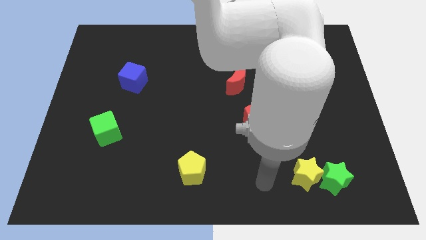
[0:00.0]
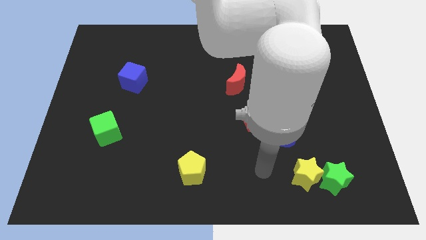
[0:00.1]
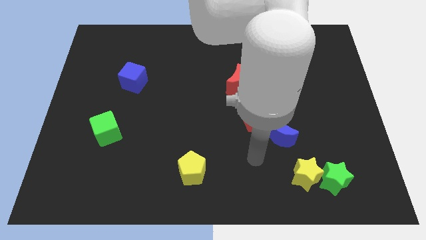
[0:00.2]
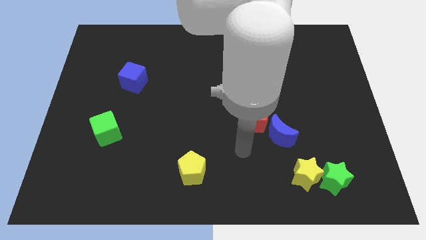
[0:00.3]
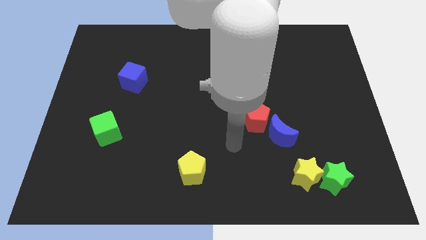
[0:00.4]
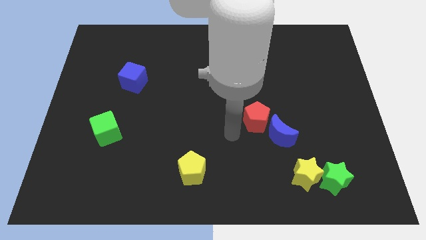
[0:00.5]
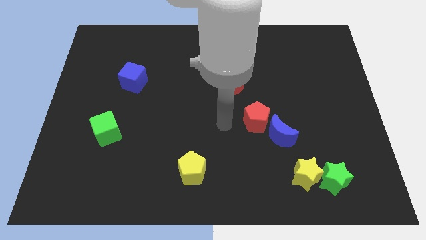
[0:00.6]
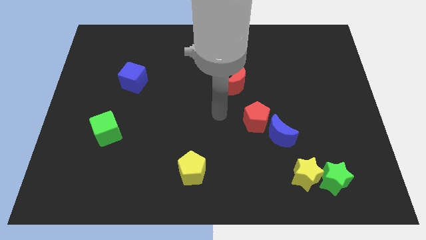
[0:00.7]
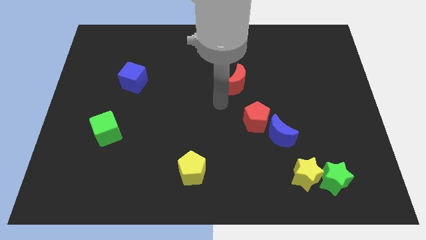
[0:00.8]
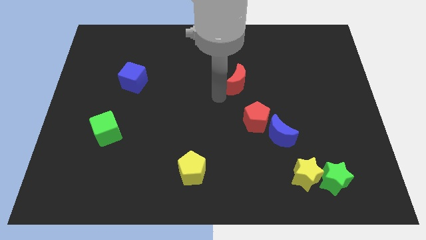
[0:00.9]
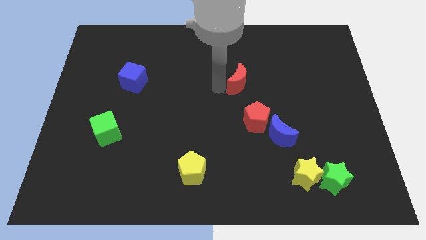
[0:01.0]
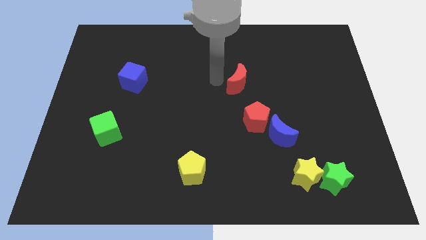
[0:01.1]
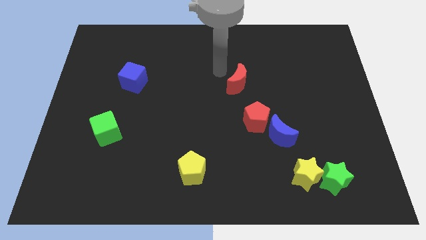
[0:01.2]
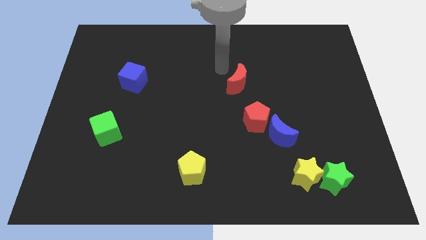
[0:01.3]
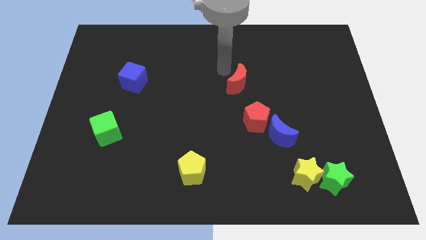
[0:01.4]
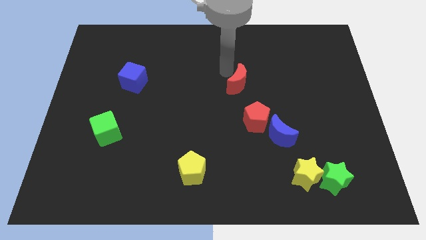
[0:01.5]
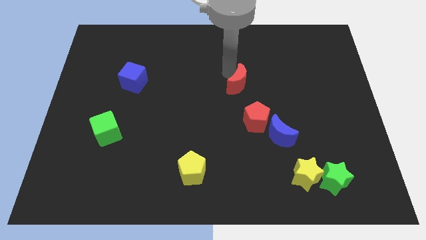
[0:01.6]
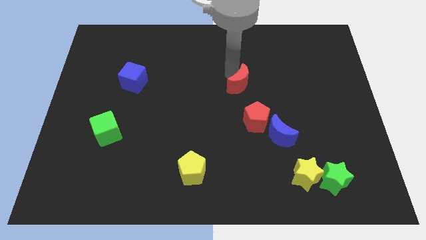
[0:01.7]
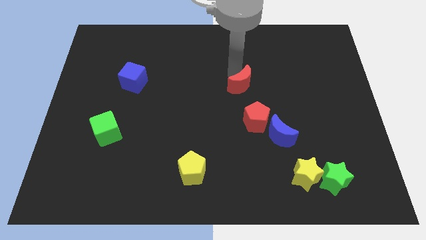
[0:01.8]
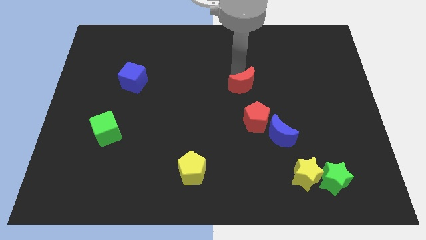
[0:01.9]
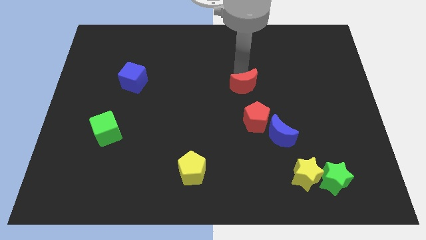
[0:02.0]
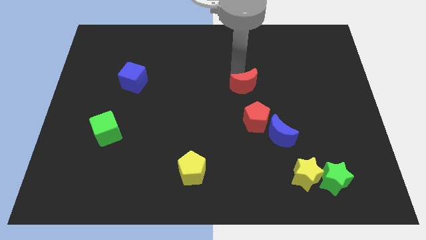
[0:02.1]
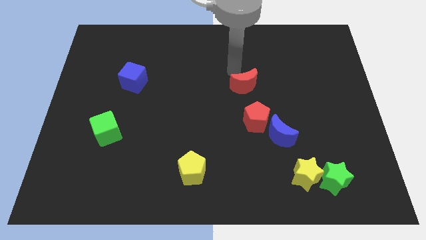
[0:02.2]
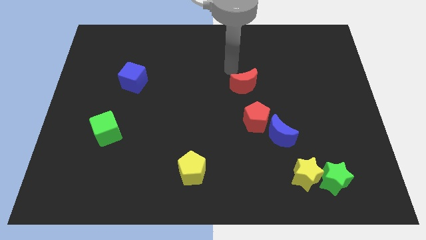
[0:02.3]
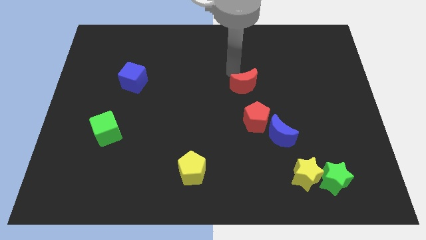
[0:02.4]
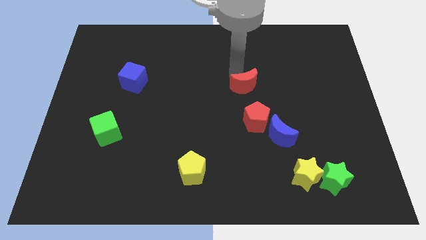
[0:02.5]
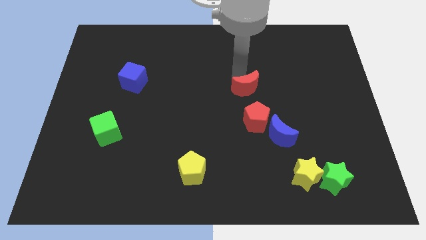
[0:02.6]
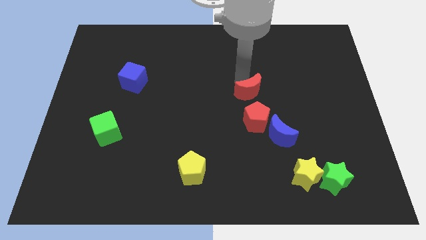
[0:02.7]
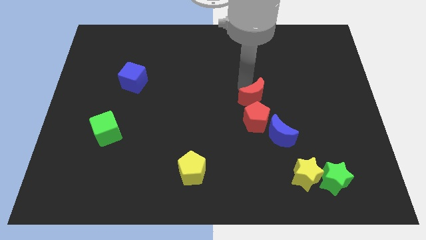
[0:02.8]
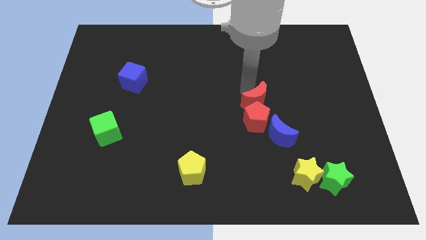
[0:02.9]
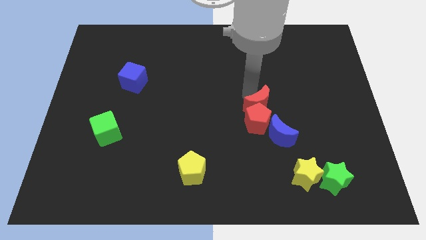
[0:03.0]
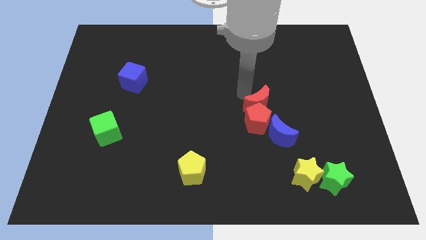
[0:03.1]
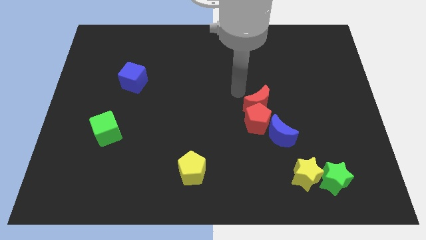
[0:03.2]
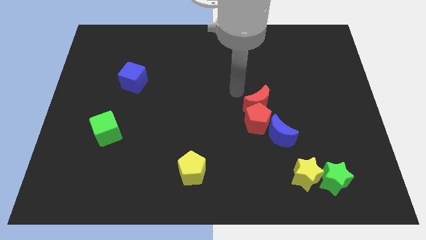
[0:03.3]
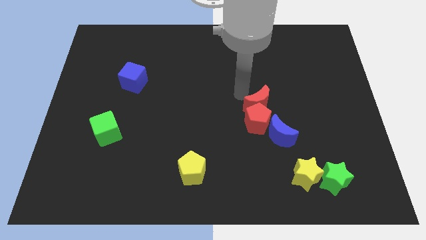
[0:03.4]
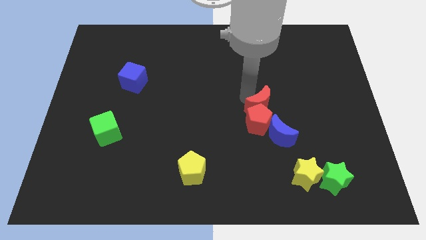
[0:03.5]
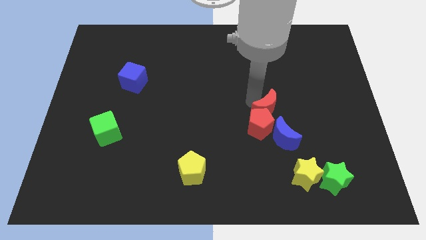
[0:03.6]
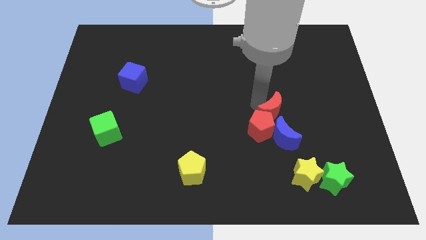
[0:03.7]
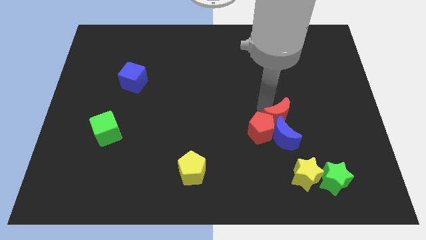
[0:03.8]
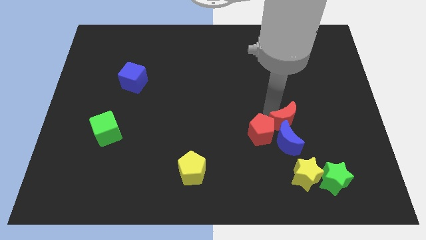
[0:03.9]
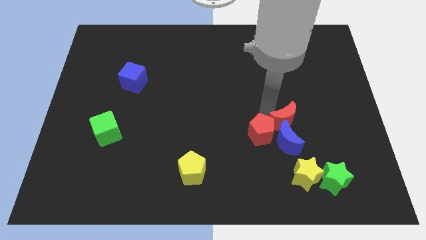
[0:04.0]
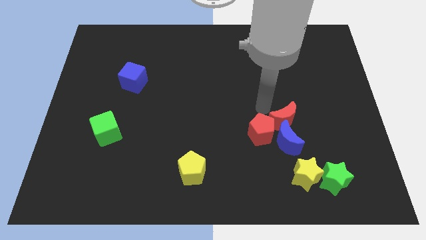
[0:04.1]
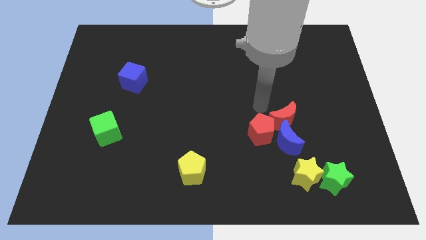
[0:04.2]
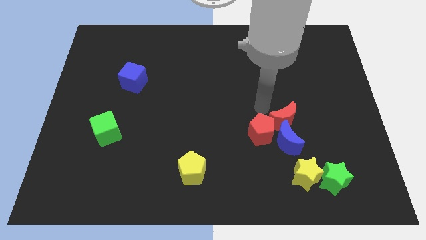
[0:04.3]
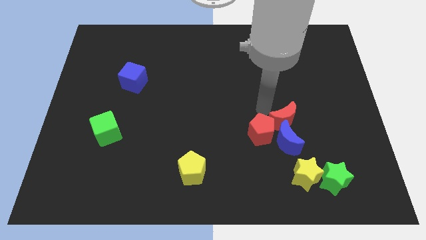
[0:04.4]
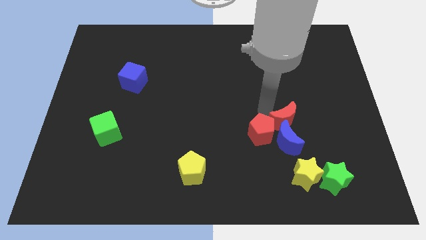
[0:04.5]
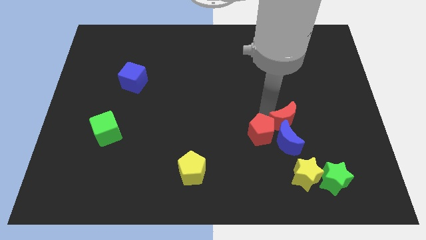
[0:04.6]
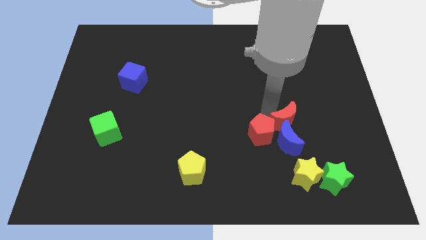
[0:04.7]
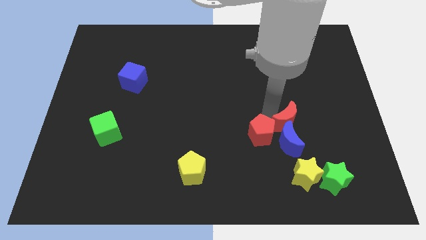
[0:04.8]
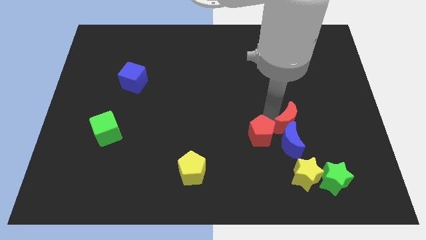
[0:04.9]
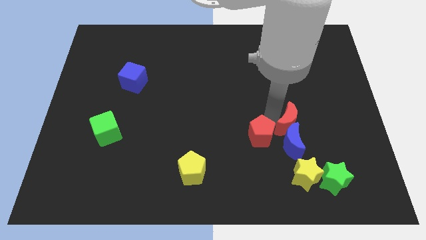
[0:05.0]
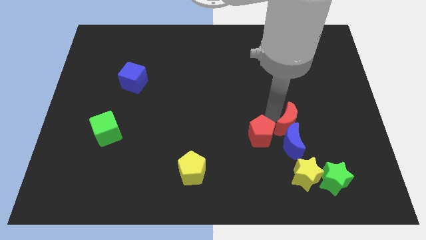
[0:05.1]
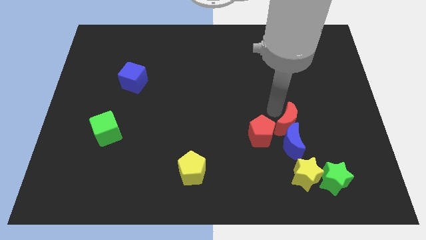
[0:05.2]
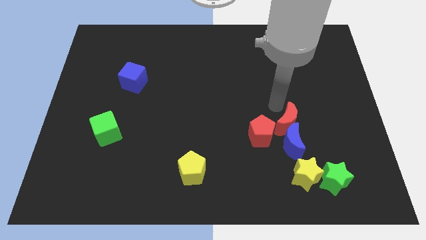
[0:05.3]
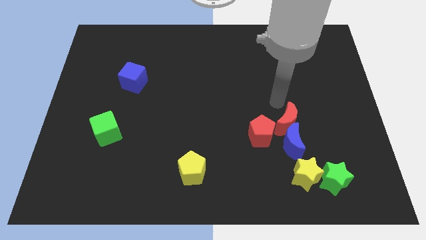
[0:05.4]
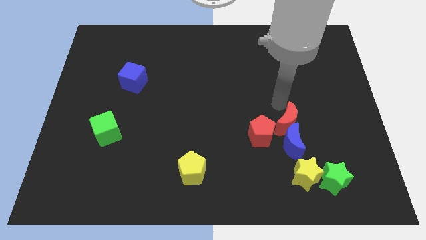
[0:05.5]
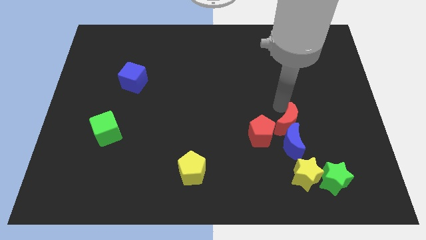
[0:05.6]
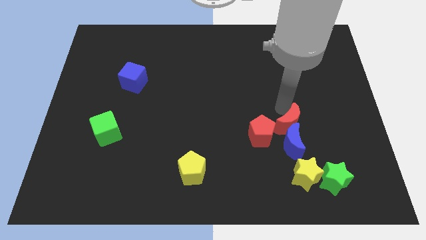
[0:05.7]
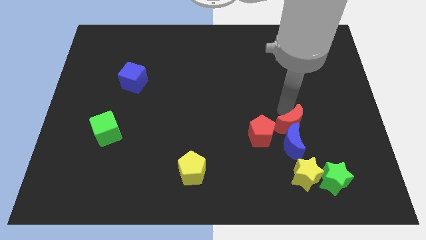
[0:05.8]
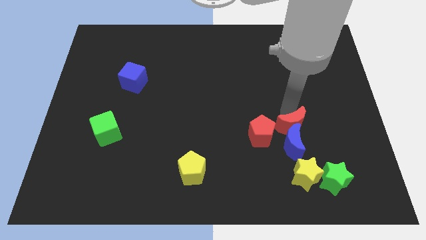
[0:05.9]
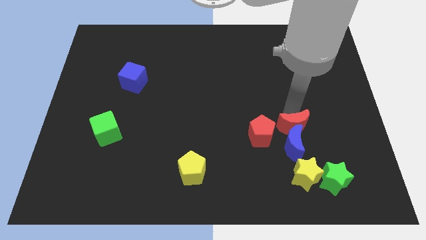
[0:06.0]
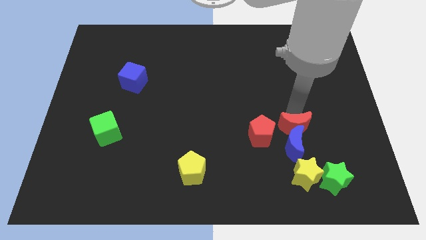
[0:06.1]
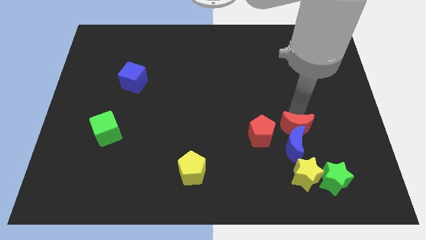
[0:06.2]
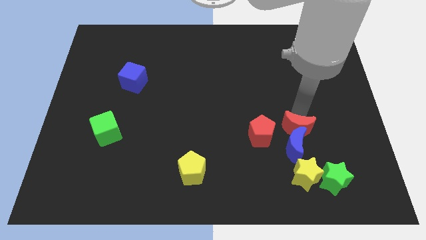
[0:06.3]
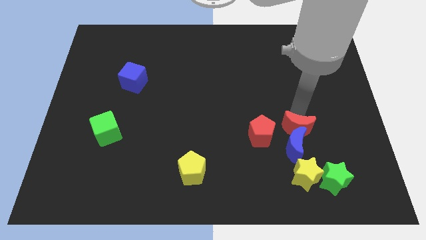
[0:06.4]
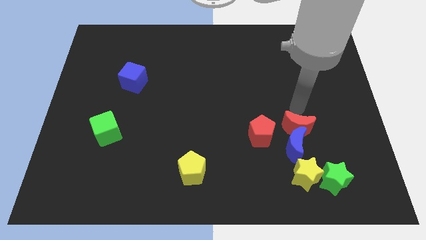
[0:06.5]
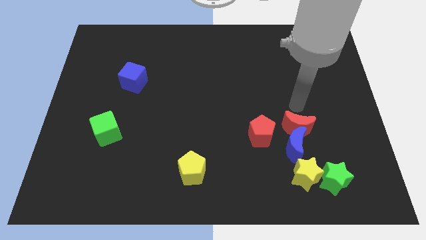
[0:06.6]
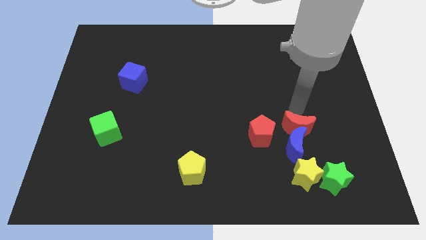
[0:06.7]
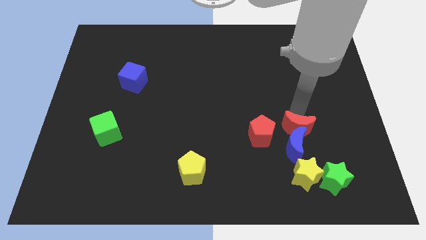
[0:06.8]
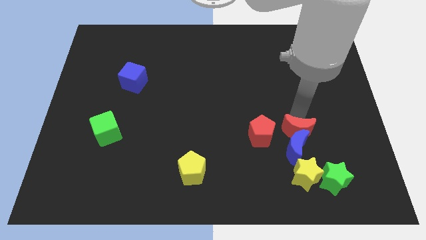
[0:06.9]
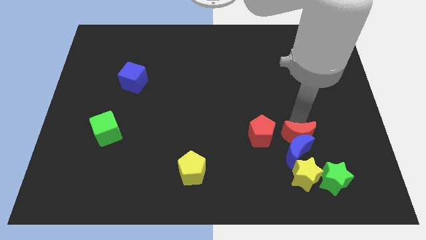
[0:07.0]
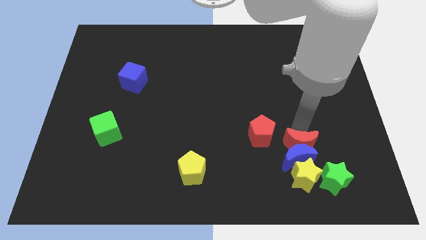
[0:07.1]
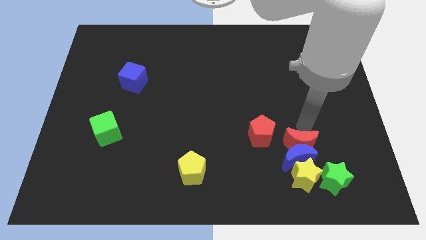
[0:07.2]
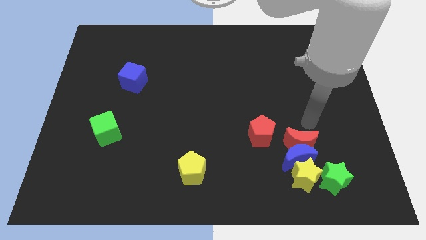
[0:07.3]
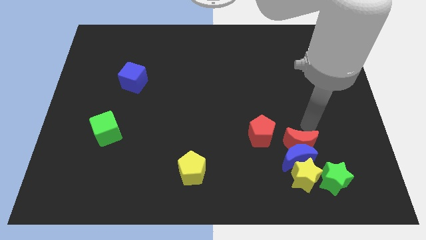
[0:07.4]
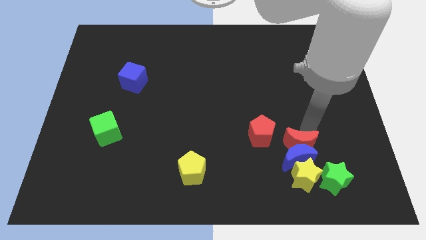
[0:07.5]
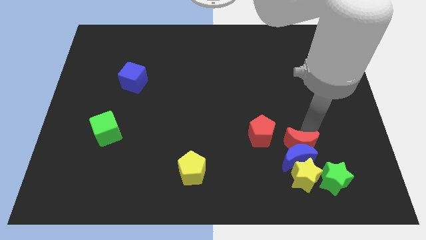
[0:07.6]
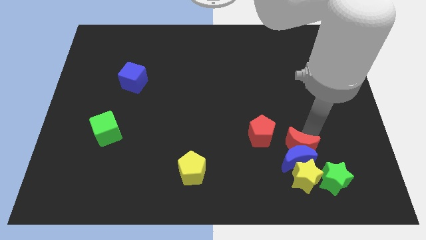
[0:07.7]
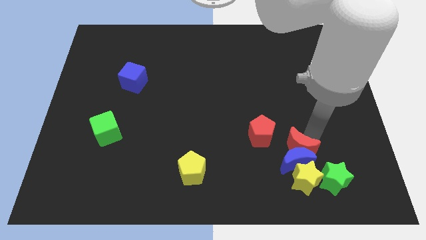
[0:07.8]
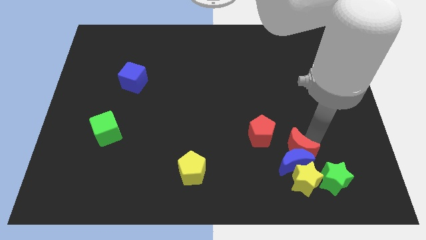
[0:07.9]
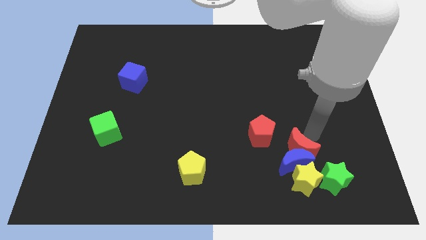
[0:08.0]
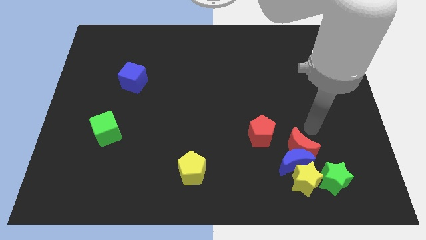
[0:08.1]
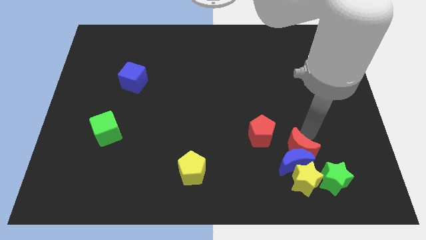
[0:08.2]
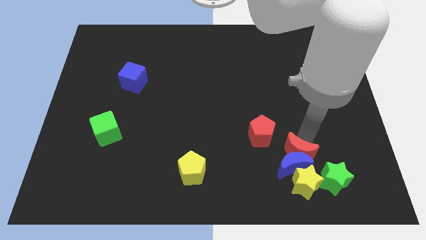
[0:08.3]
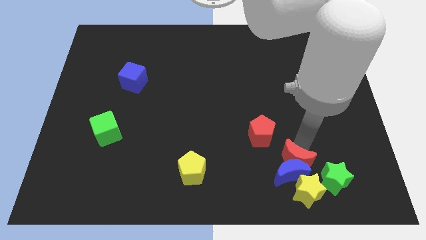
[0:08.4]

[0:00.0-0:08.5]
move the red moon just left of the green star
